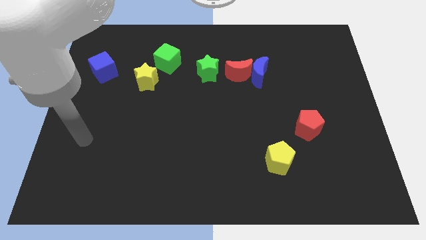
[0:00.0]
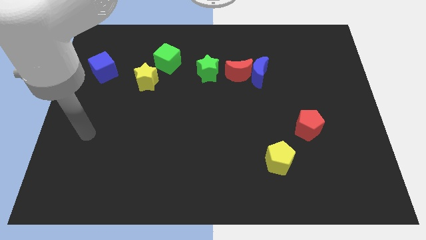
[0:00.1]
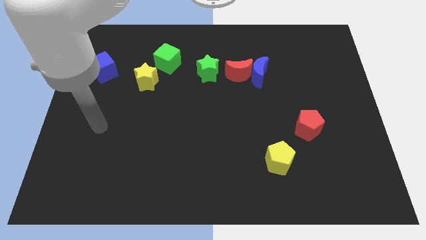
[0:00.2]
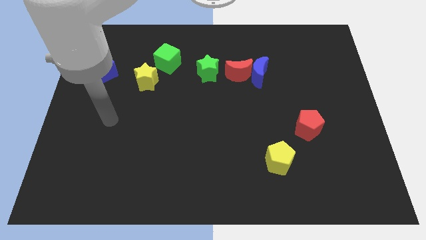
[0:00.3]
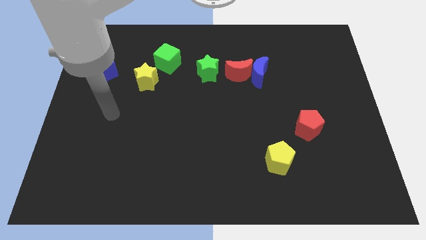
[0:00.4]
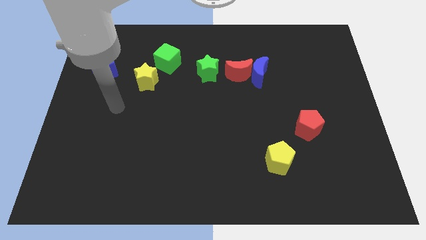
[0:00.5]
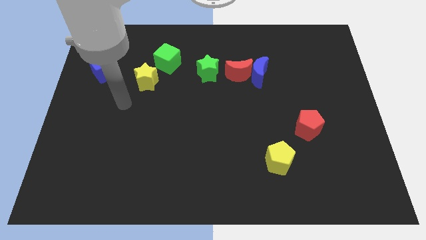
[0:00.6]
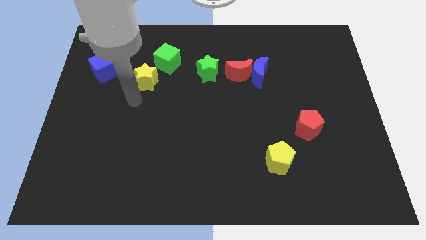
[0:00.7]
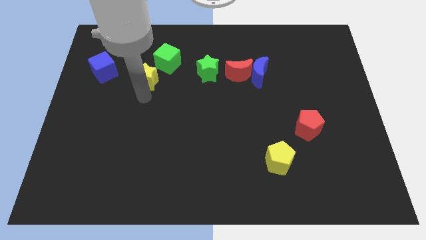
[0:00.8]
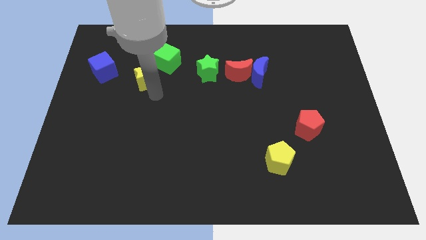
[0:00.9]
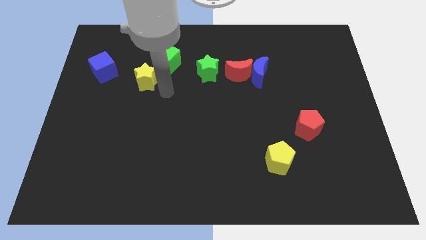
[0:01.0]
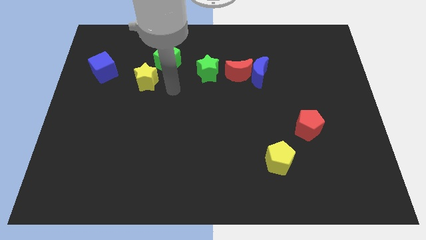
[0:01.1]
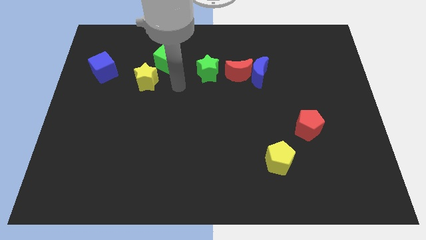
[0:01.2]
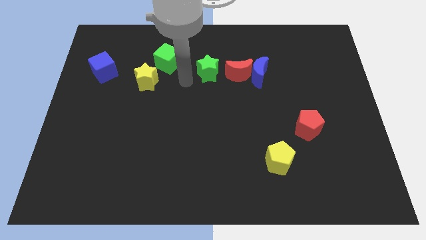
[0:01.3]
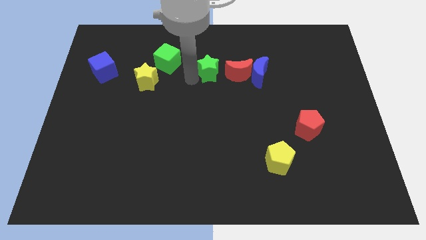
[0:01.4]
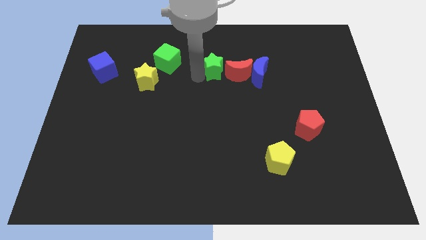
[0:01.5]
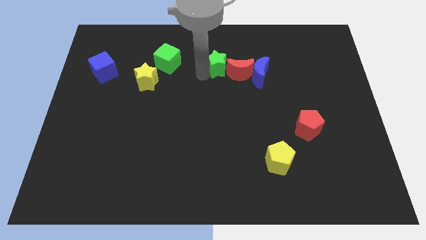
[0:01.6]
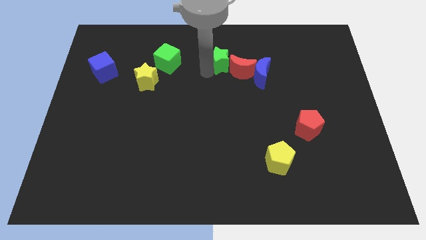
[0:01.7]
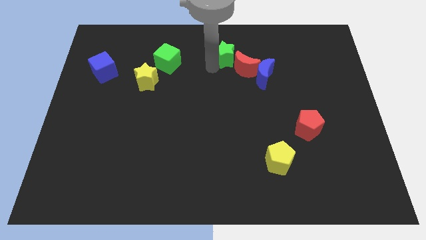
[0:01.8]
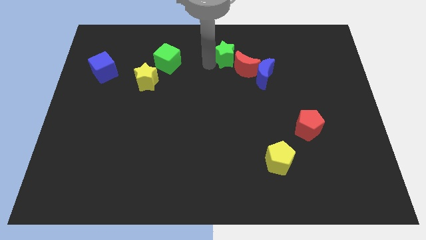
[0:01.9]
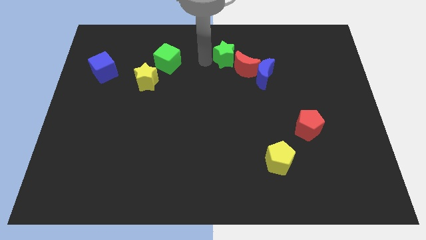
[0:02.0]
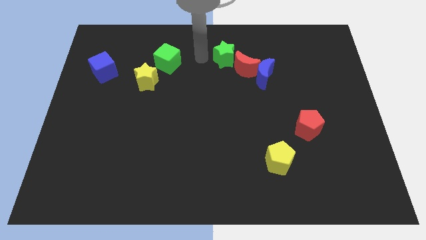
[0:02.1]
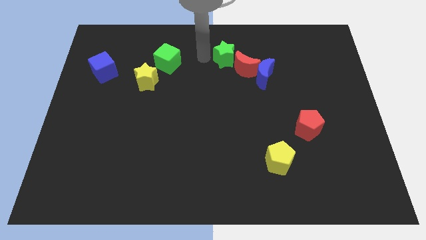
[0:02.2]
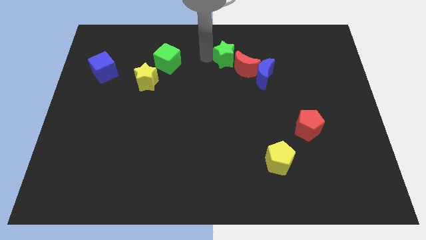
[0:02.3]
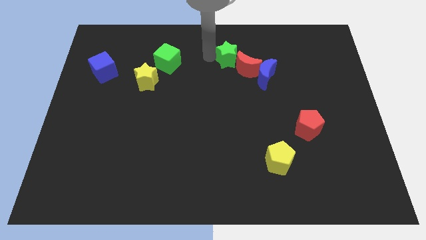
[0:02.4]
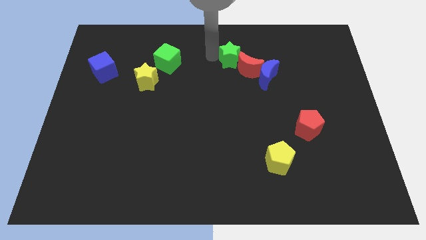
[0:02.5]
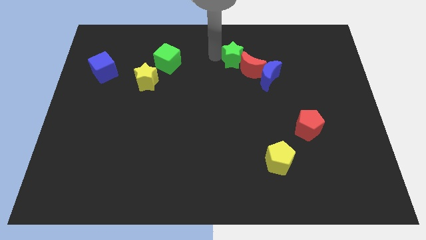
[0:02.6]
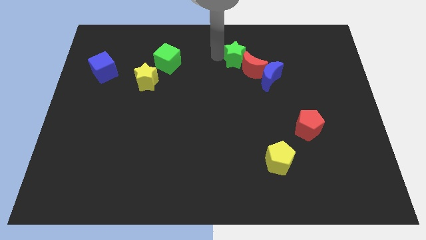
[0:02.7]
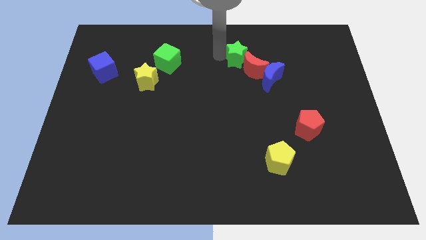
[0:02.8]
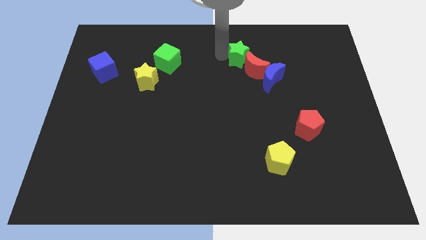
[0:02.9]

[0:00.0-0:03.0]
slide the green star to the right slightly

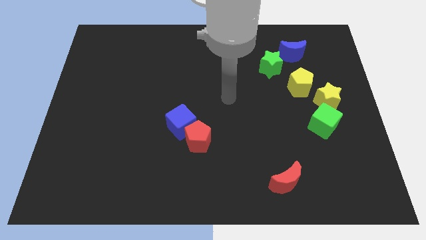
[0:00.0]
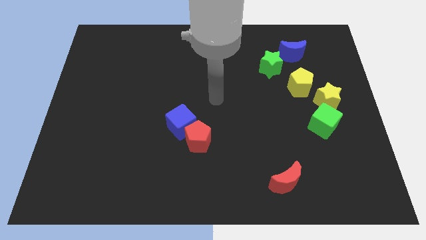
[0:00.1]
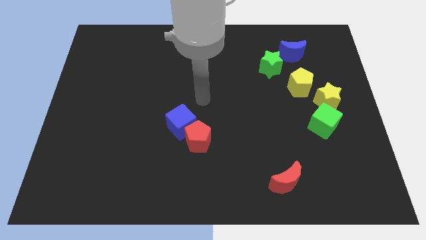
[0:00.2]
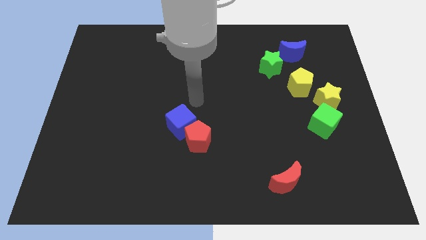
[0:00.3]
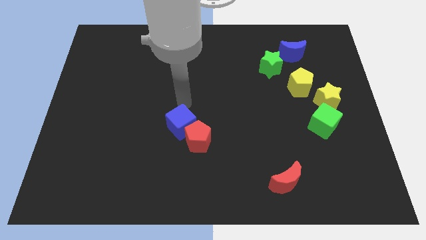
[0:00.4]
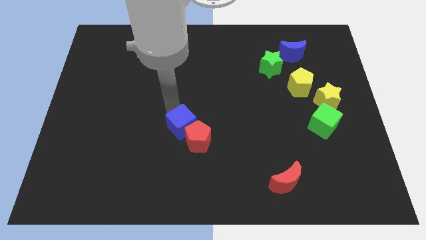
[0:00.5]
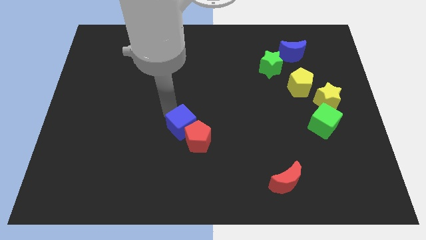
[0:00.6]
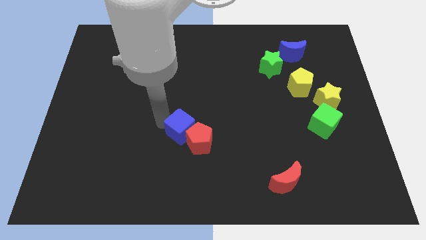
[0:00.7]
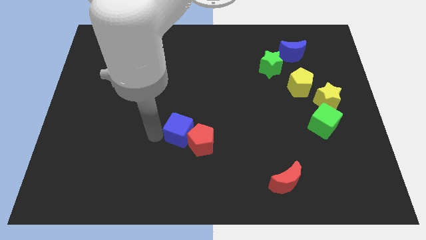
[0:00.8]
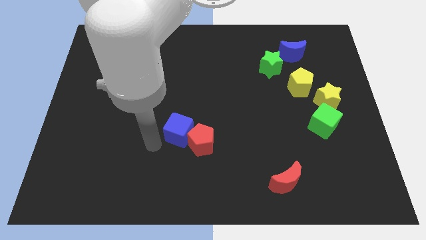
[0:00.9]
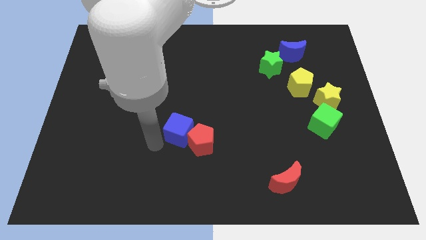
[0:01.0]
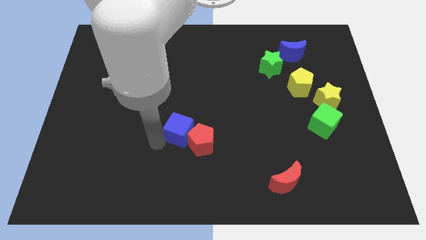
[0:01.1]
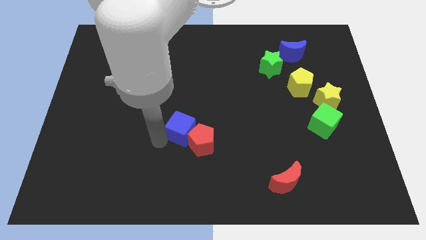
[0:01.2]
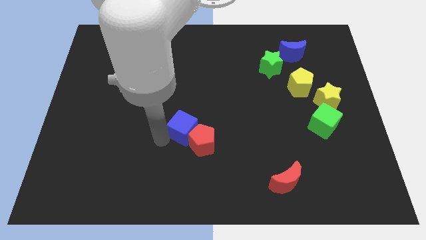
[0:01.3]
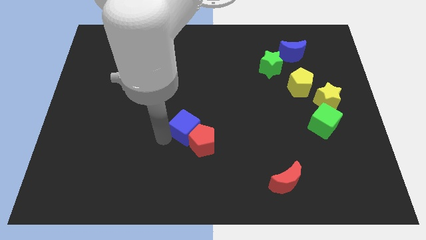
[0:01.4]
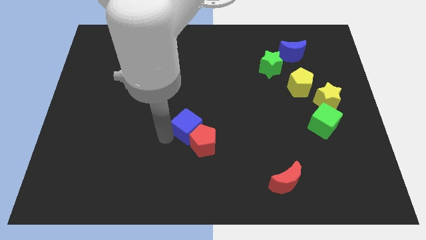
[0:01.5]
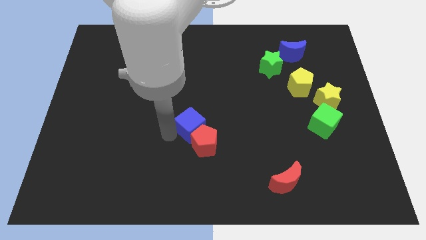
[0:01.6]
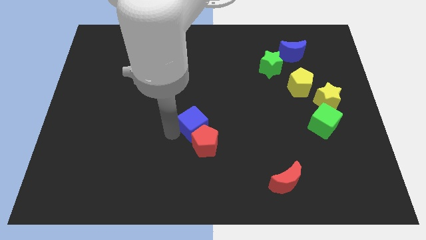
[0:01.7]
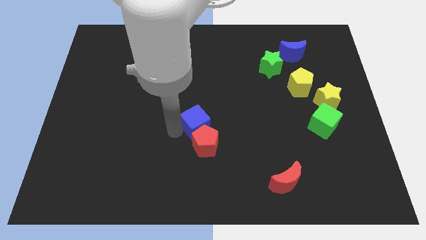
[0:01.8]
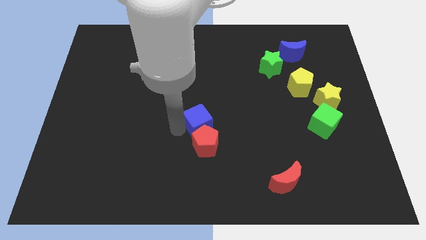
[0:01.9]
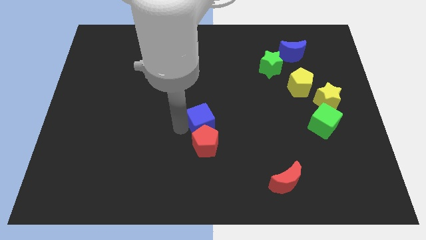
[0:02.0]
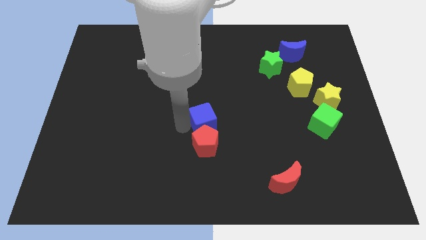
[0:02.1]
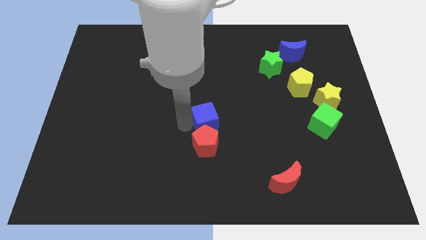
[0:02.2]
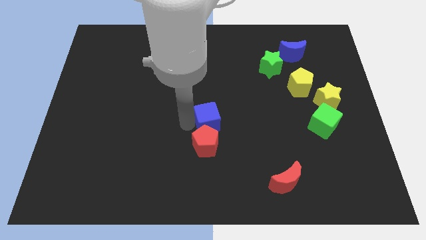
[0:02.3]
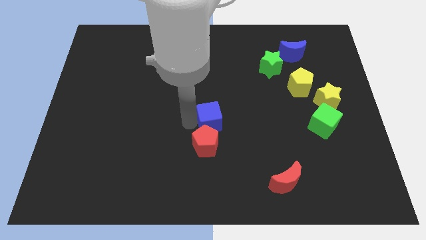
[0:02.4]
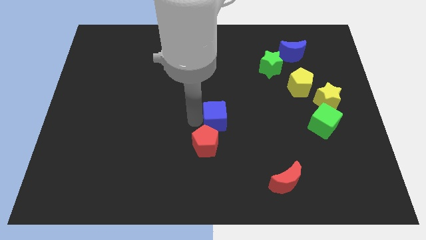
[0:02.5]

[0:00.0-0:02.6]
slide the blue cube somewhat to the right

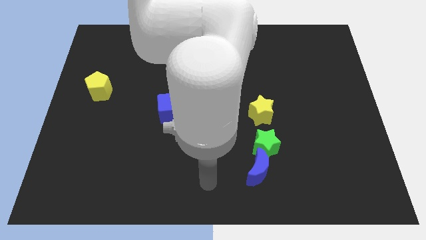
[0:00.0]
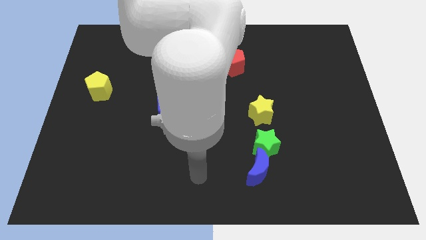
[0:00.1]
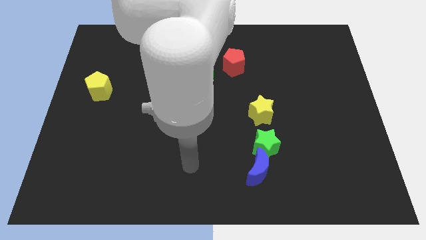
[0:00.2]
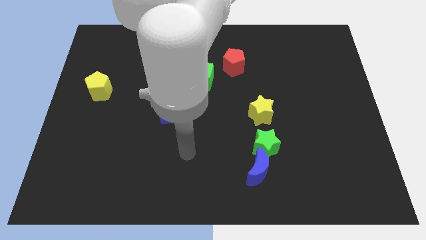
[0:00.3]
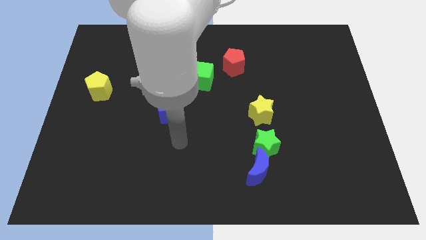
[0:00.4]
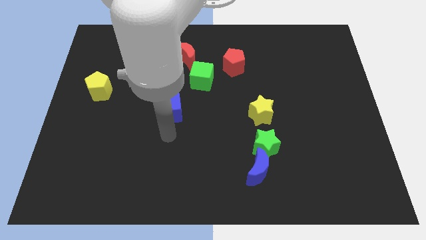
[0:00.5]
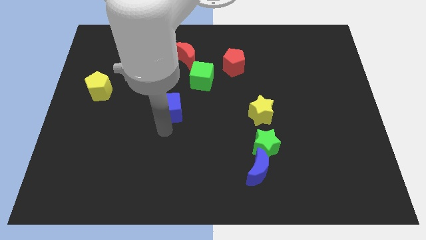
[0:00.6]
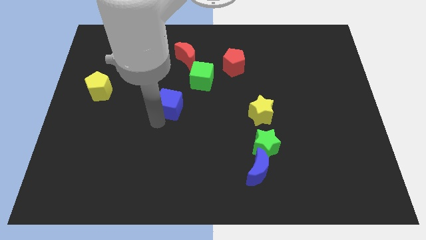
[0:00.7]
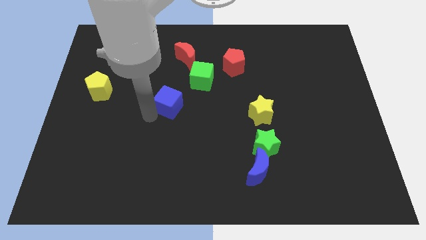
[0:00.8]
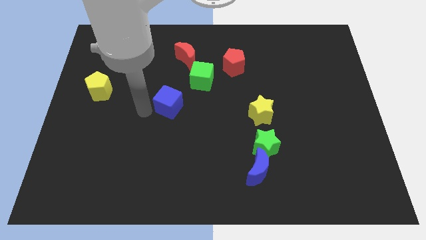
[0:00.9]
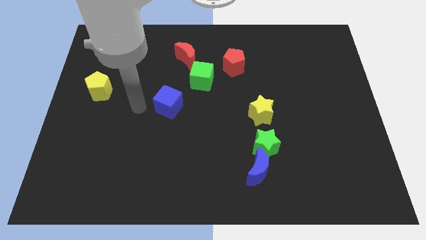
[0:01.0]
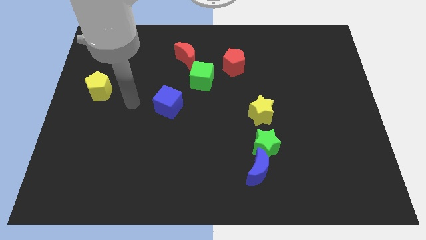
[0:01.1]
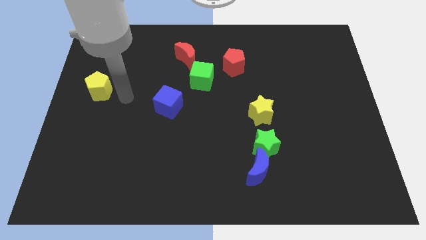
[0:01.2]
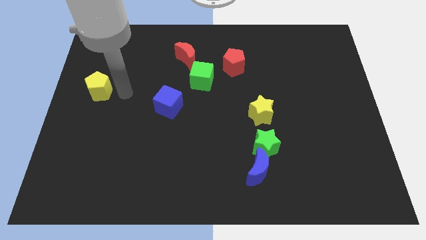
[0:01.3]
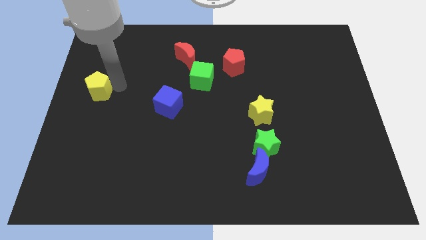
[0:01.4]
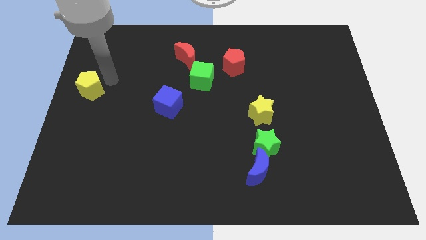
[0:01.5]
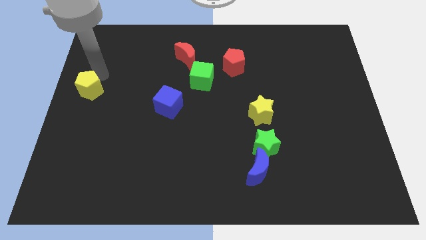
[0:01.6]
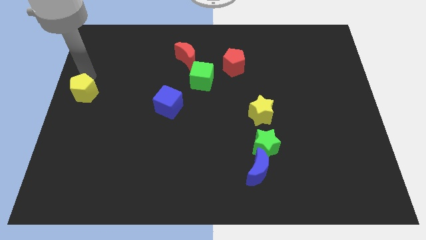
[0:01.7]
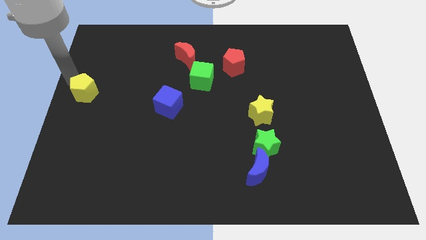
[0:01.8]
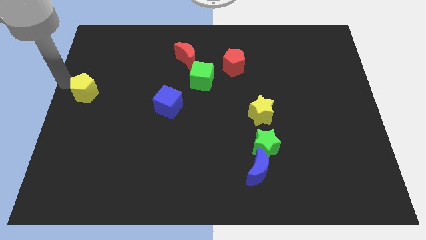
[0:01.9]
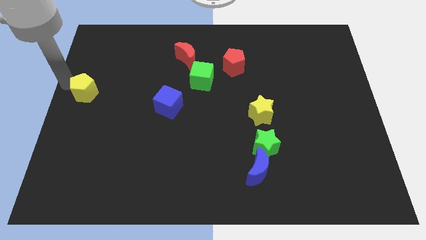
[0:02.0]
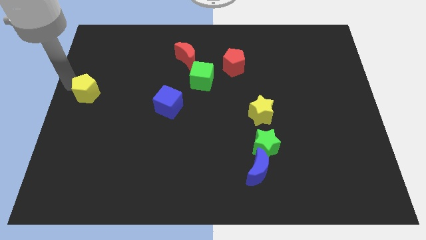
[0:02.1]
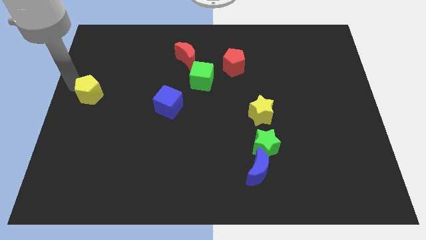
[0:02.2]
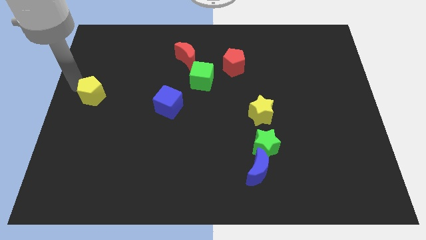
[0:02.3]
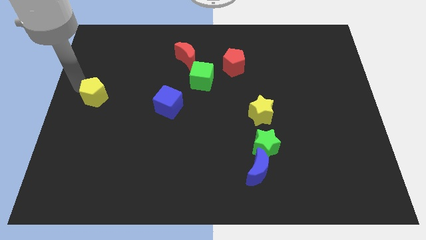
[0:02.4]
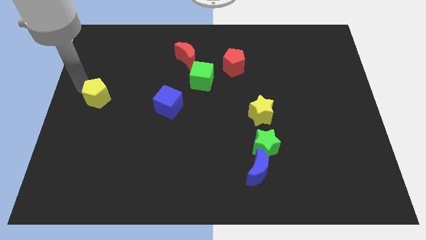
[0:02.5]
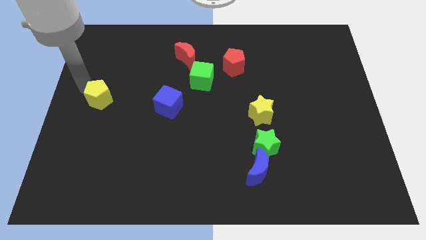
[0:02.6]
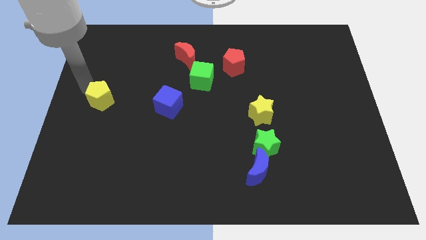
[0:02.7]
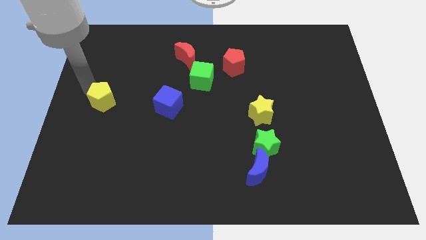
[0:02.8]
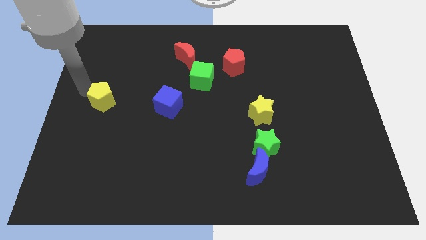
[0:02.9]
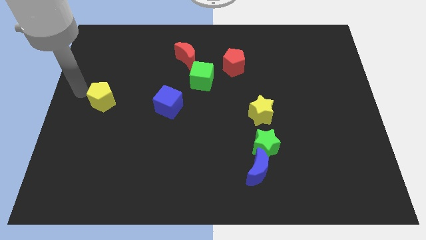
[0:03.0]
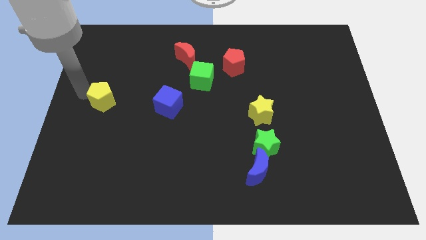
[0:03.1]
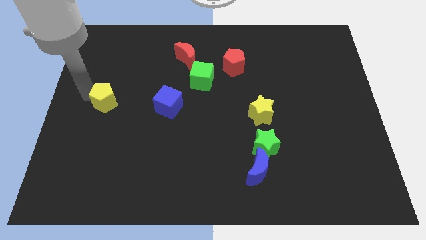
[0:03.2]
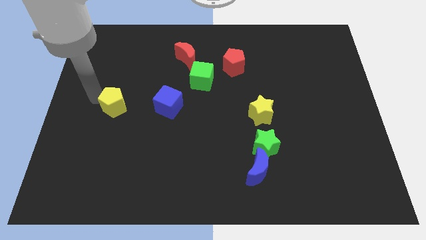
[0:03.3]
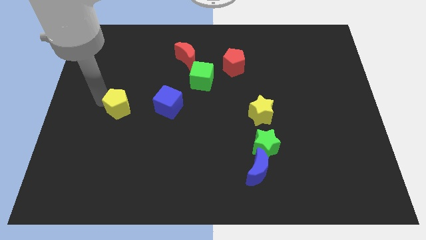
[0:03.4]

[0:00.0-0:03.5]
slightly slide the yellow pentagon downwards and right diagonally
